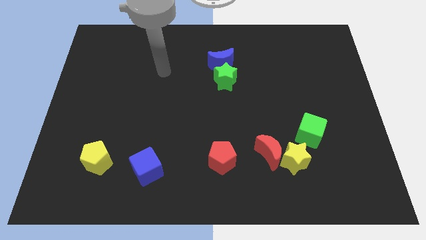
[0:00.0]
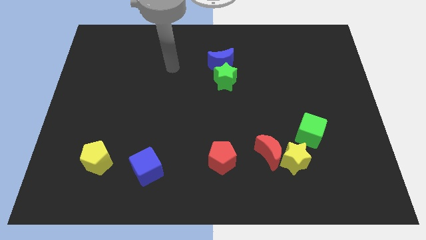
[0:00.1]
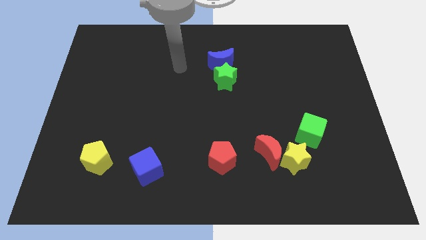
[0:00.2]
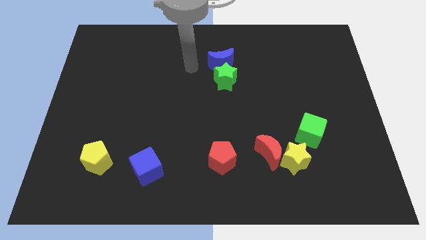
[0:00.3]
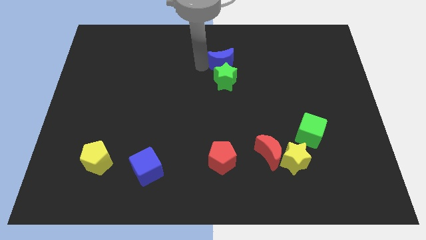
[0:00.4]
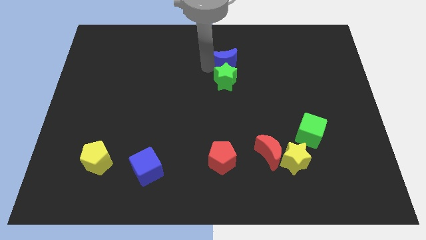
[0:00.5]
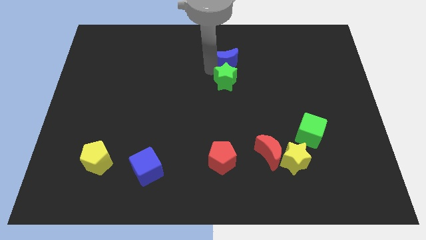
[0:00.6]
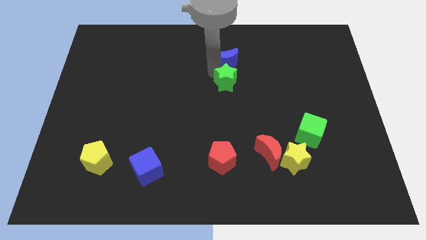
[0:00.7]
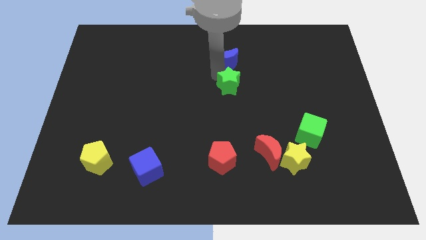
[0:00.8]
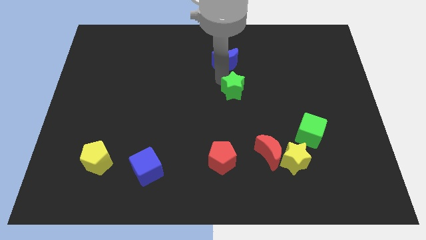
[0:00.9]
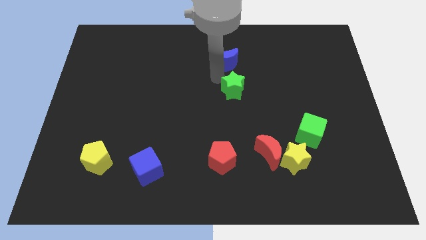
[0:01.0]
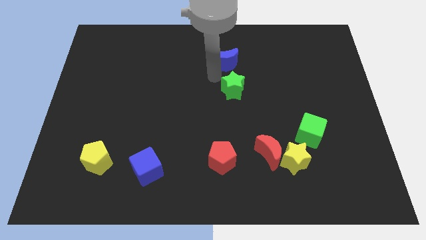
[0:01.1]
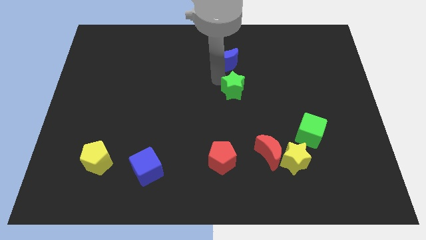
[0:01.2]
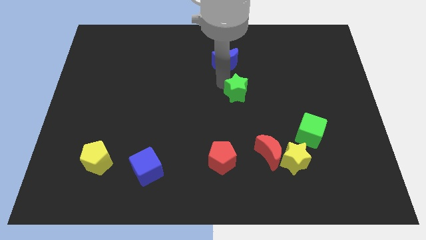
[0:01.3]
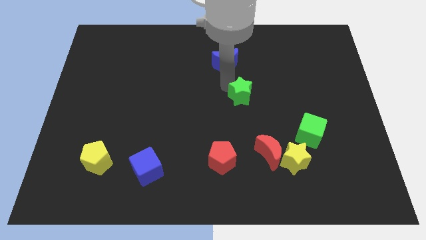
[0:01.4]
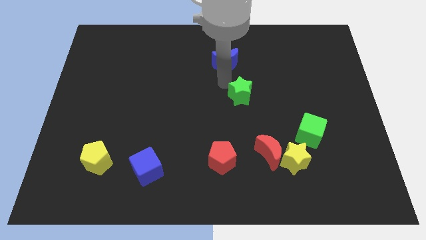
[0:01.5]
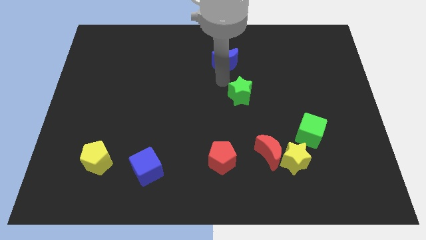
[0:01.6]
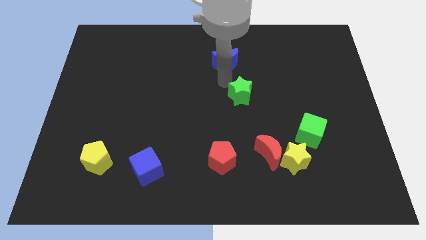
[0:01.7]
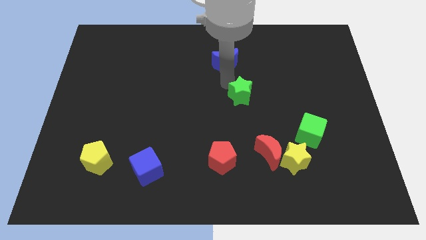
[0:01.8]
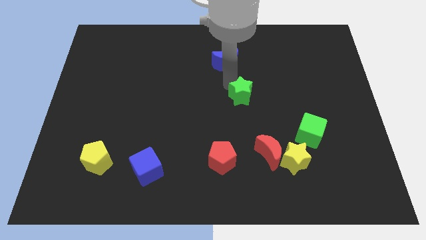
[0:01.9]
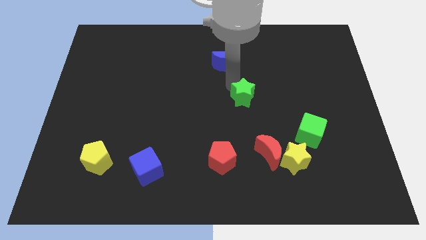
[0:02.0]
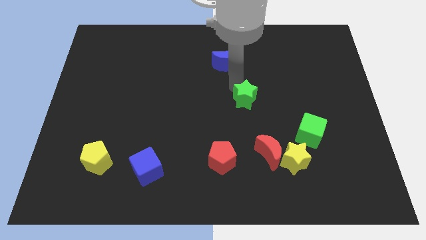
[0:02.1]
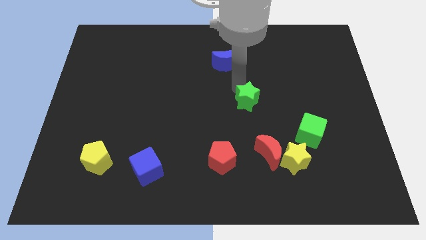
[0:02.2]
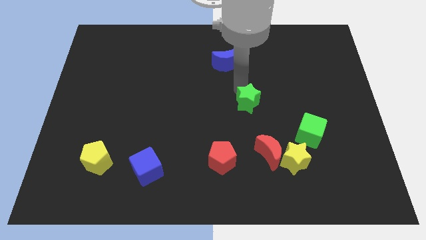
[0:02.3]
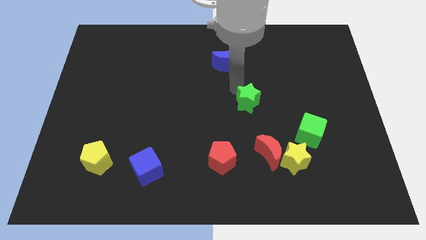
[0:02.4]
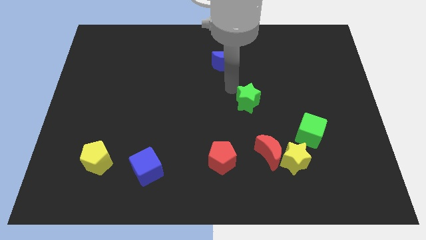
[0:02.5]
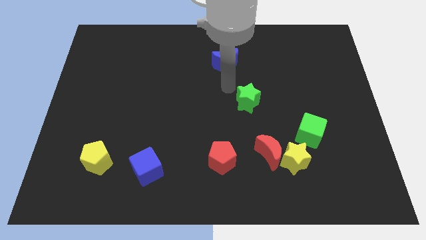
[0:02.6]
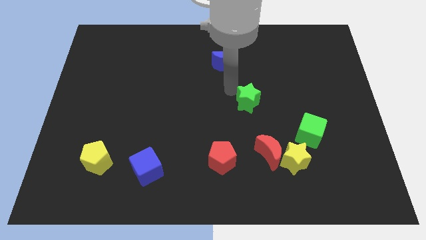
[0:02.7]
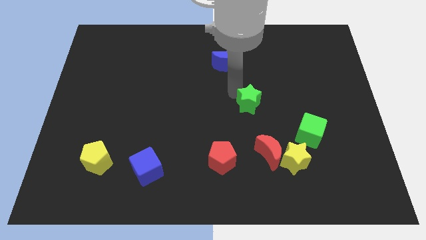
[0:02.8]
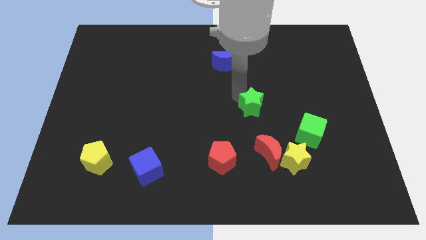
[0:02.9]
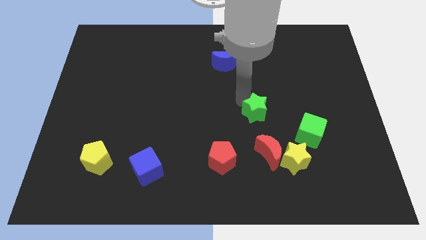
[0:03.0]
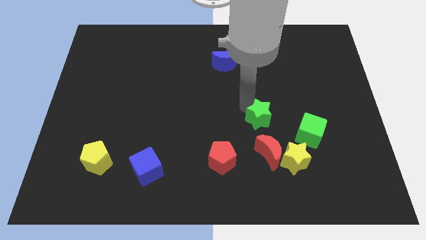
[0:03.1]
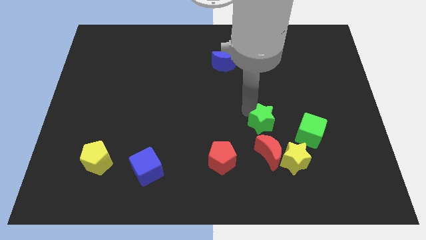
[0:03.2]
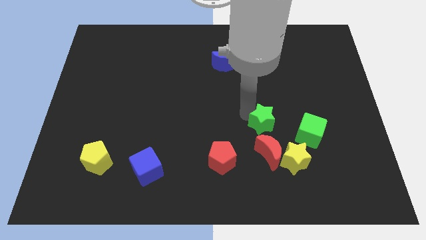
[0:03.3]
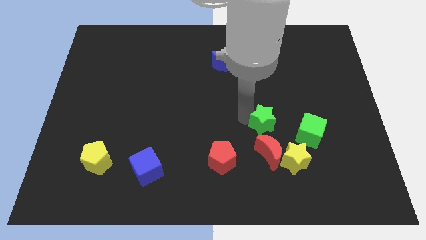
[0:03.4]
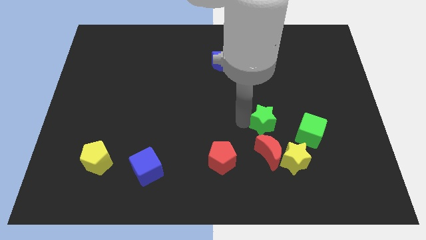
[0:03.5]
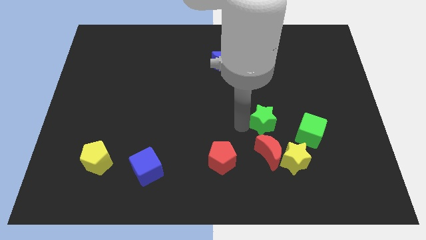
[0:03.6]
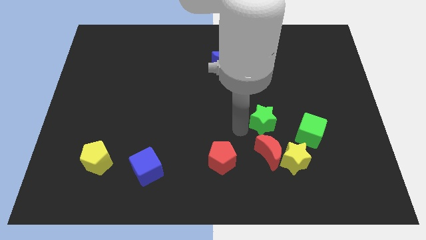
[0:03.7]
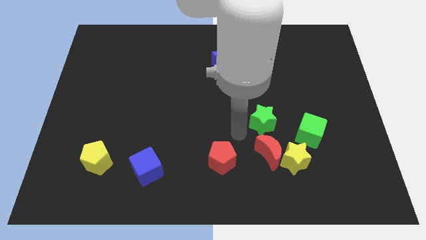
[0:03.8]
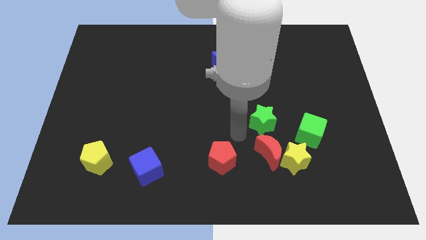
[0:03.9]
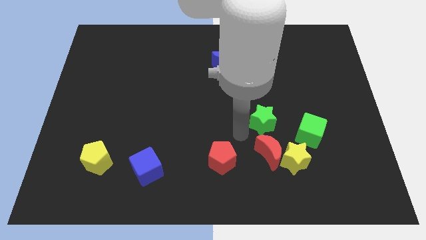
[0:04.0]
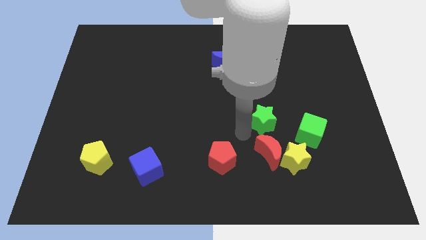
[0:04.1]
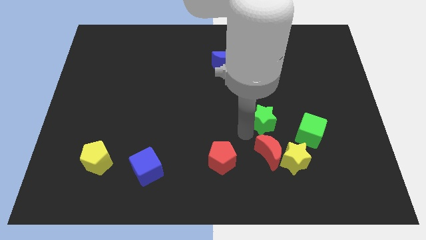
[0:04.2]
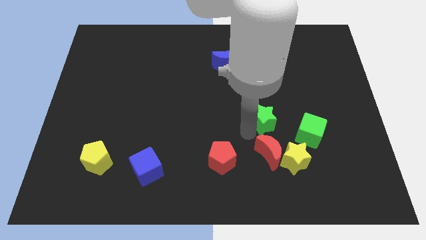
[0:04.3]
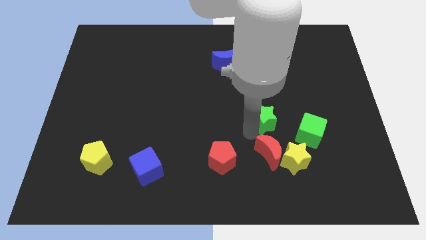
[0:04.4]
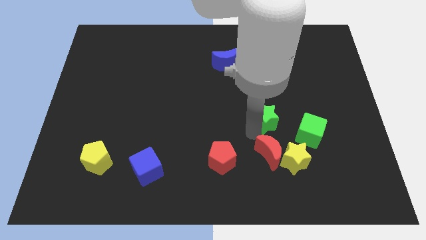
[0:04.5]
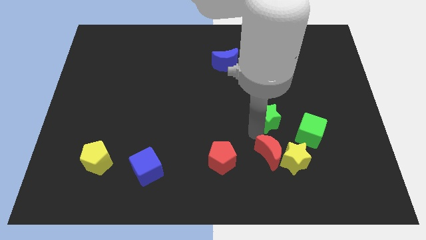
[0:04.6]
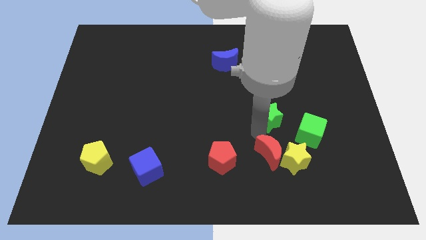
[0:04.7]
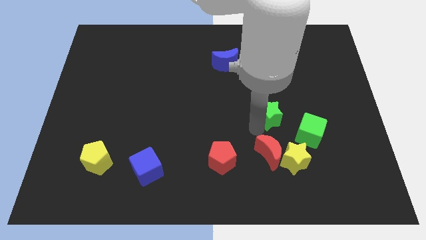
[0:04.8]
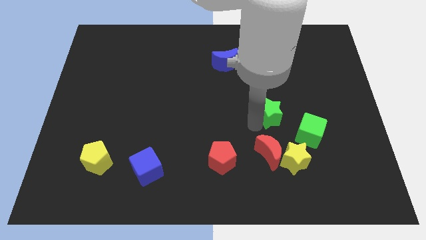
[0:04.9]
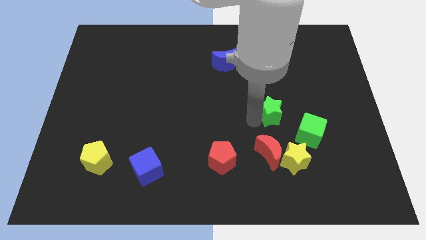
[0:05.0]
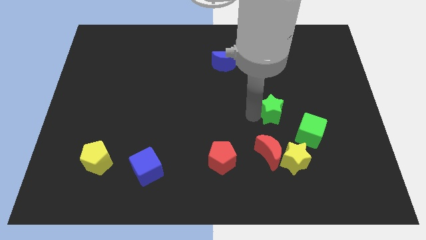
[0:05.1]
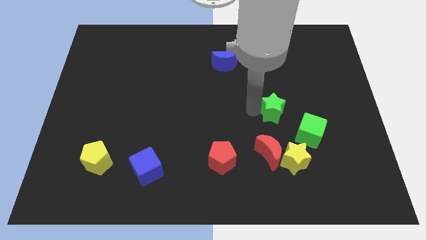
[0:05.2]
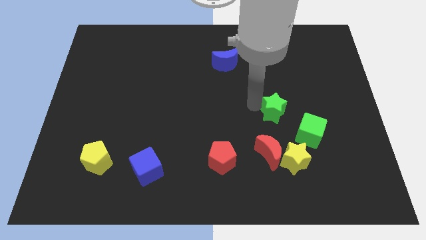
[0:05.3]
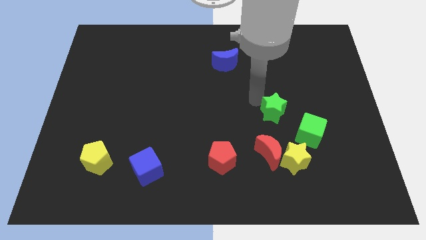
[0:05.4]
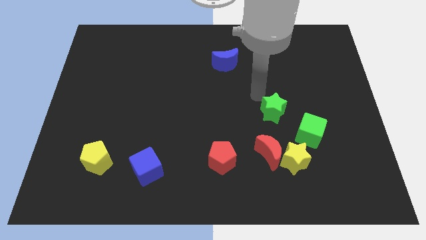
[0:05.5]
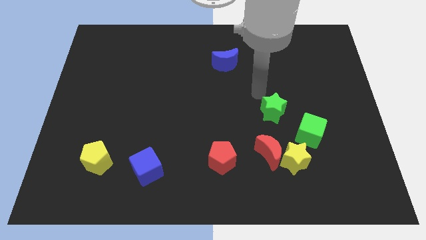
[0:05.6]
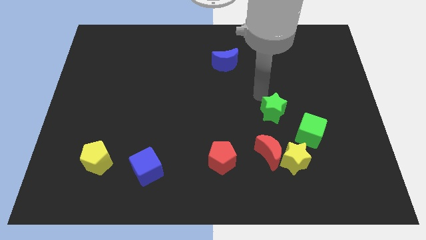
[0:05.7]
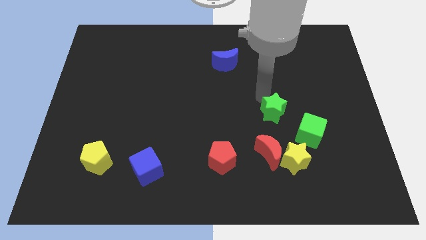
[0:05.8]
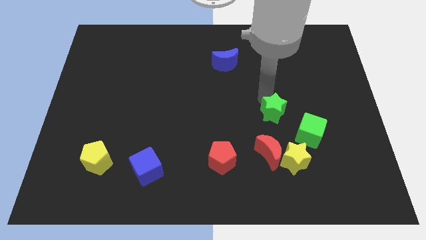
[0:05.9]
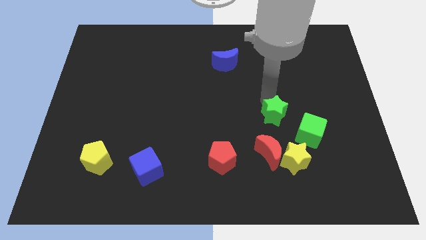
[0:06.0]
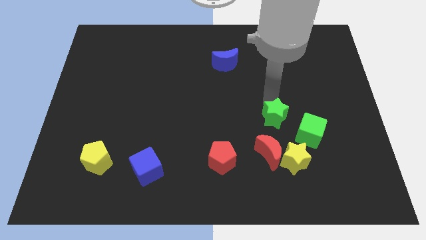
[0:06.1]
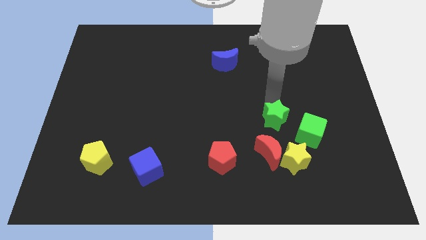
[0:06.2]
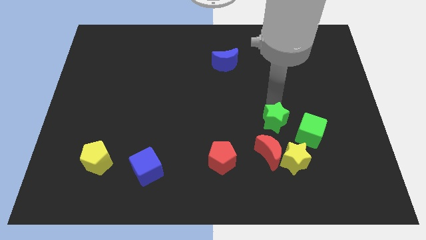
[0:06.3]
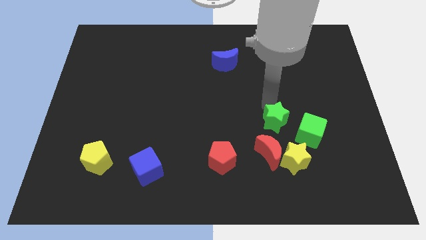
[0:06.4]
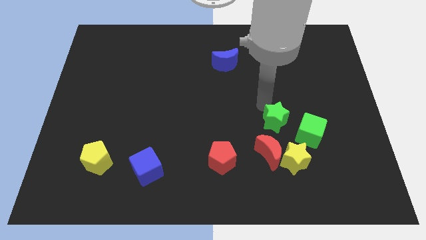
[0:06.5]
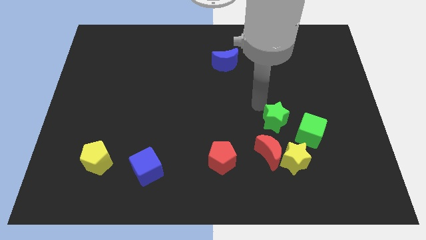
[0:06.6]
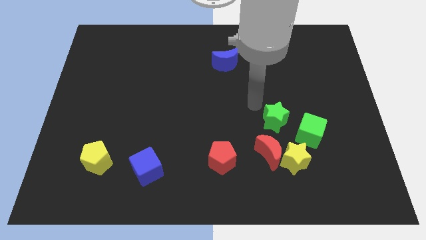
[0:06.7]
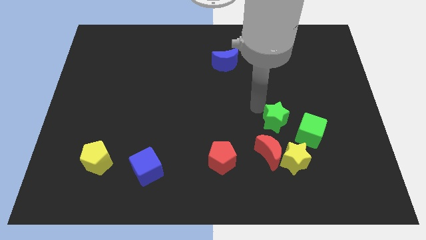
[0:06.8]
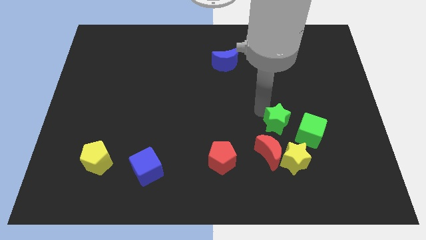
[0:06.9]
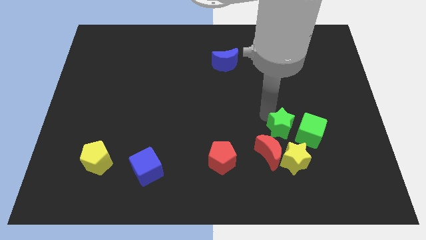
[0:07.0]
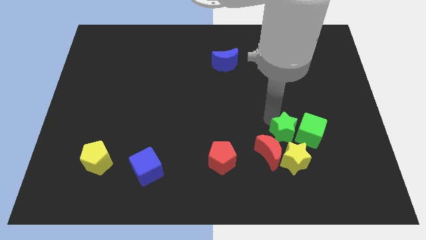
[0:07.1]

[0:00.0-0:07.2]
slide the green star down and then right

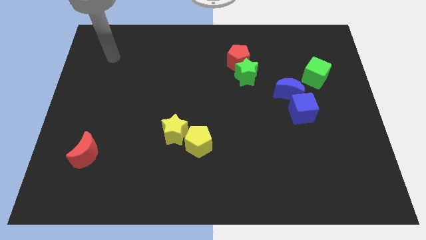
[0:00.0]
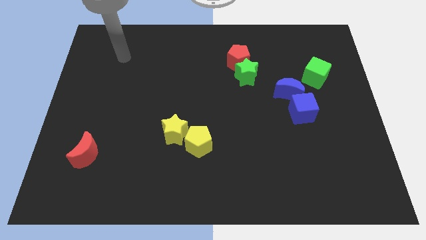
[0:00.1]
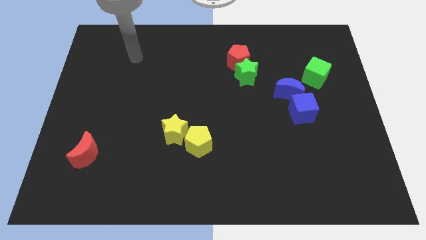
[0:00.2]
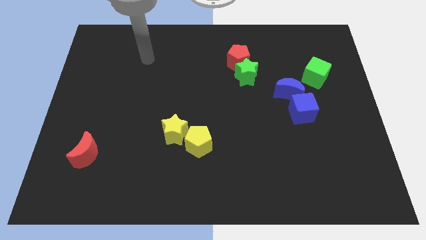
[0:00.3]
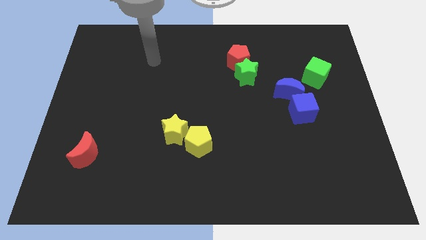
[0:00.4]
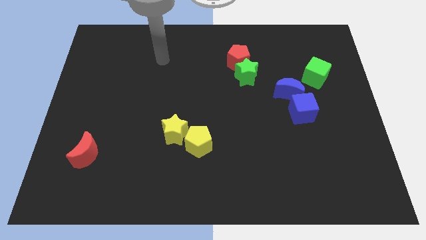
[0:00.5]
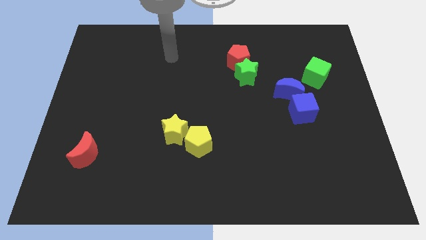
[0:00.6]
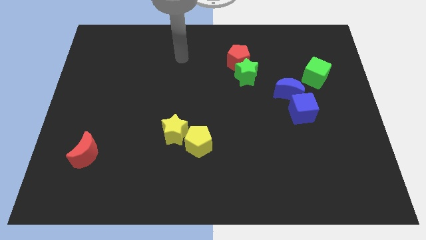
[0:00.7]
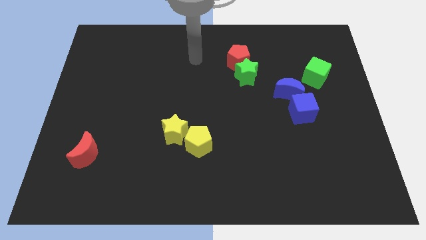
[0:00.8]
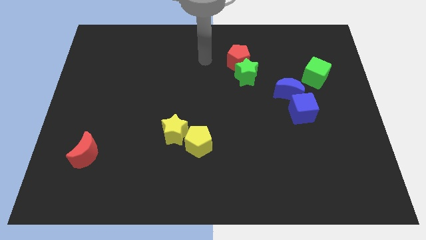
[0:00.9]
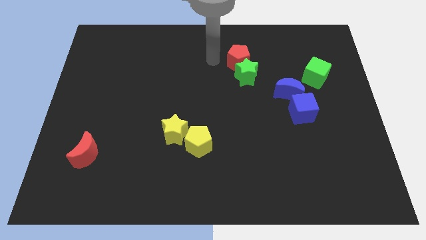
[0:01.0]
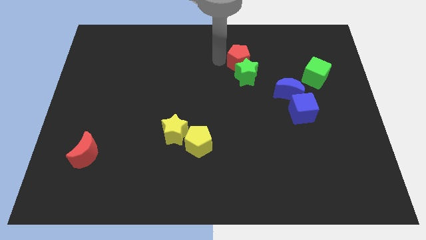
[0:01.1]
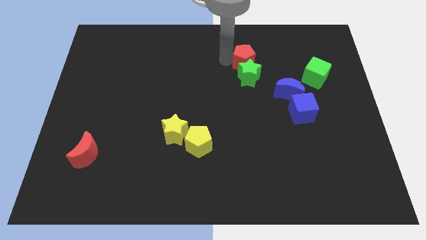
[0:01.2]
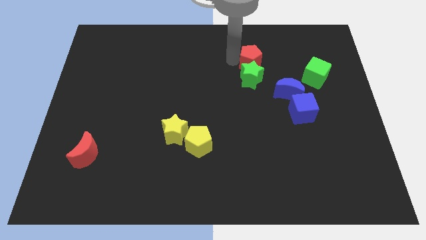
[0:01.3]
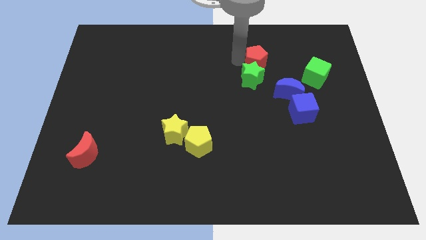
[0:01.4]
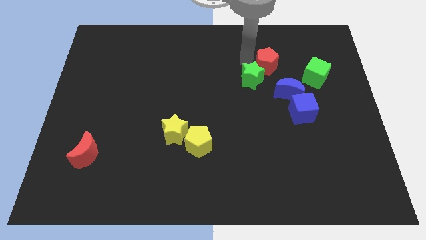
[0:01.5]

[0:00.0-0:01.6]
slightly push the red pentagon to the right
